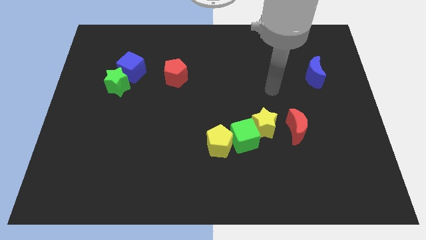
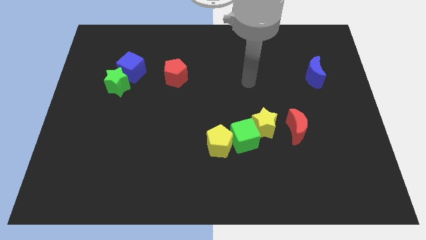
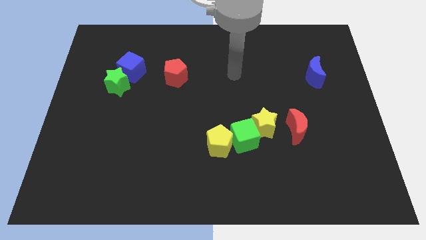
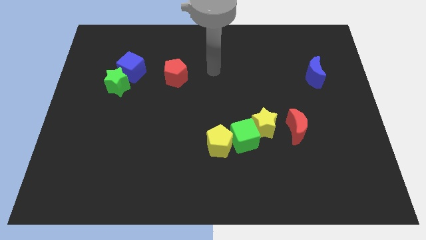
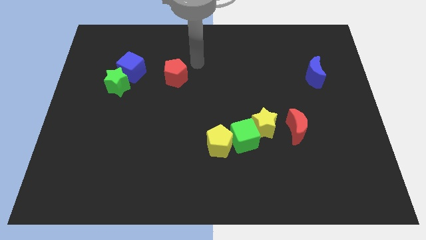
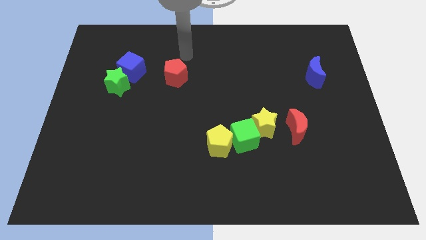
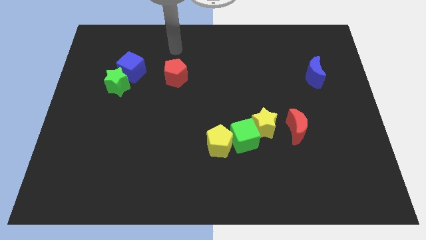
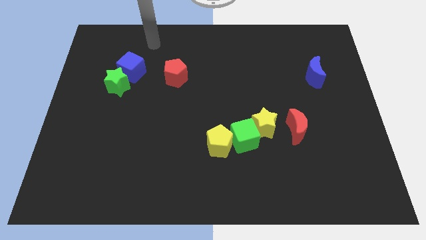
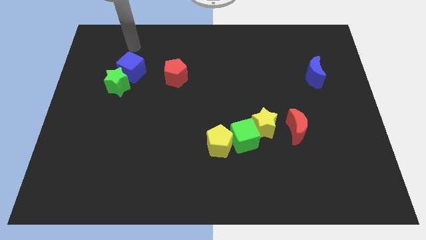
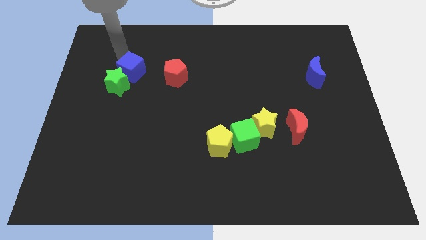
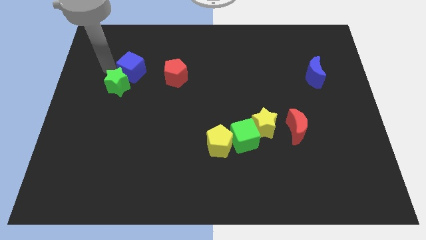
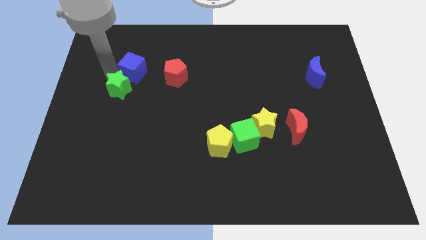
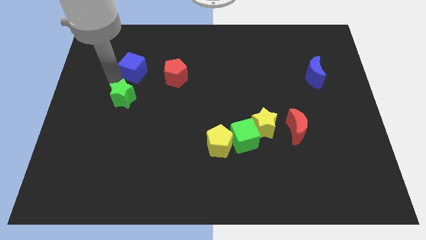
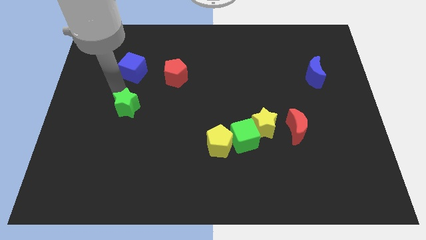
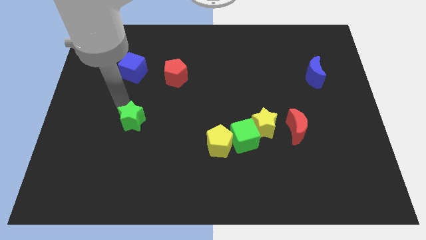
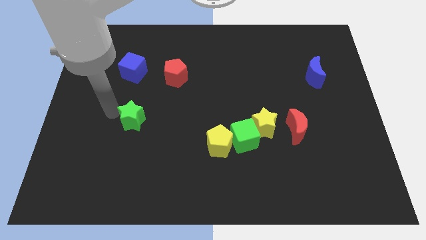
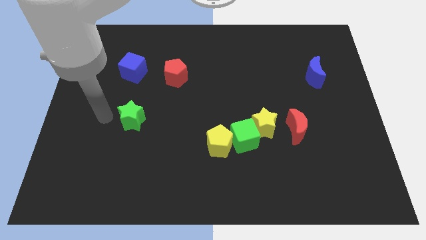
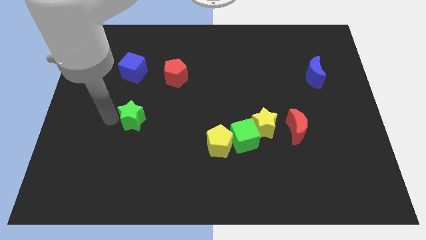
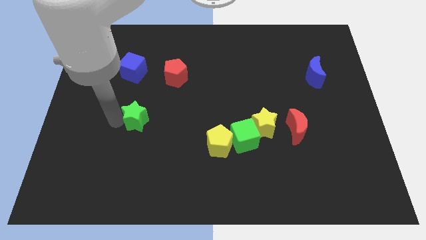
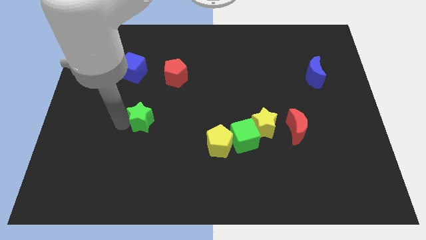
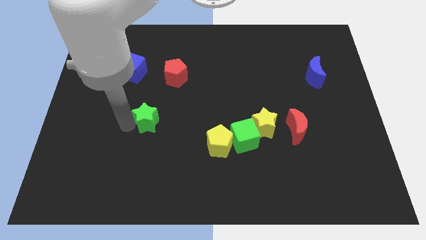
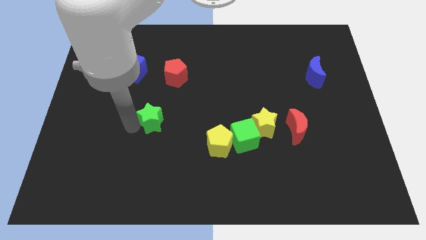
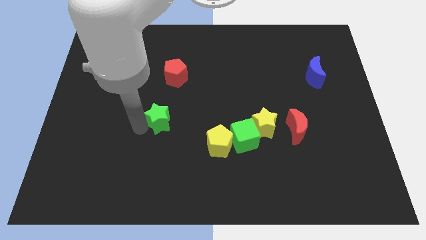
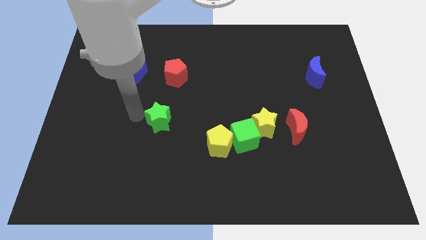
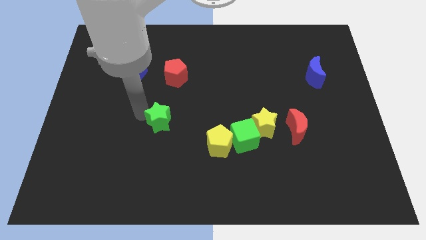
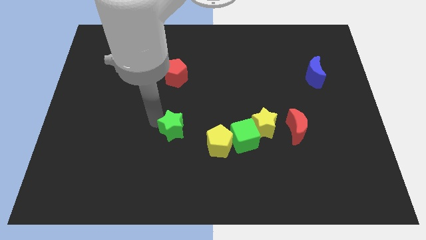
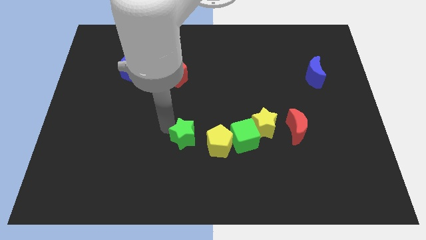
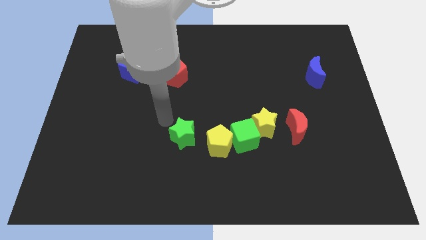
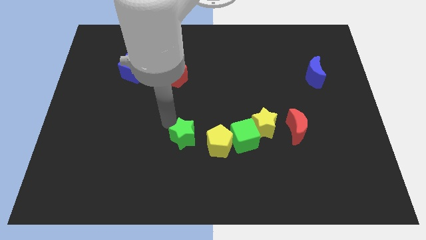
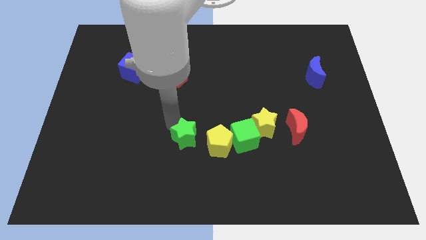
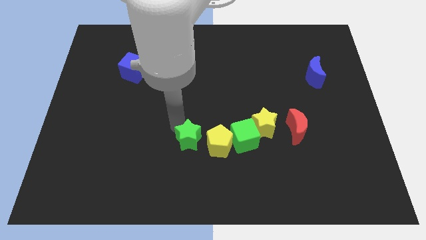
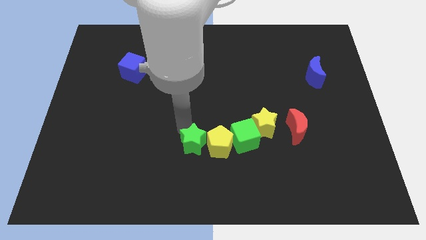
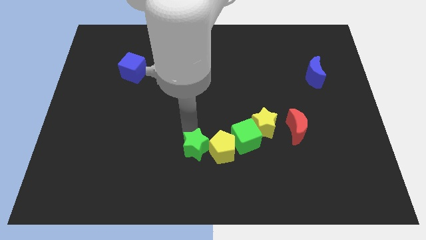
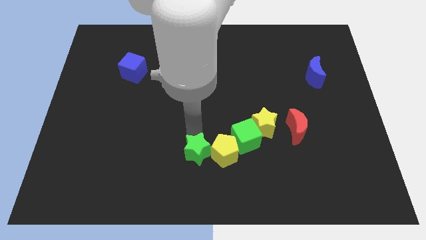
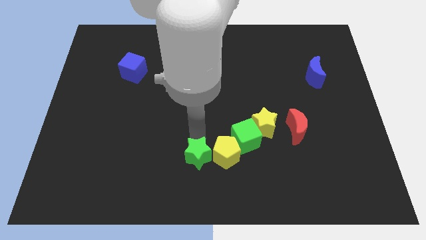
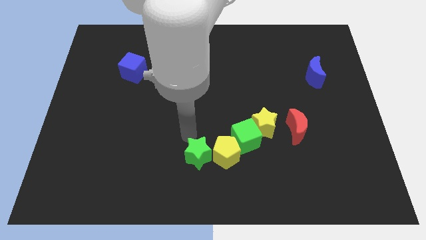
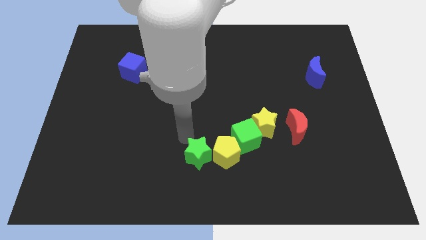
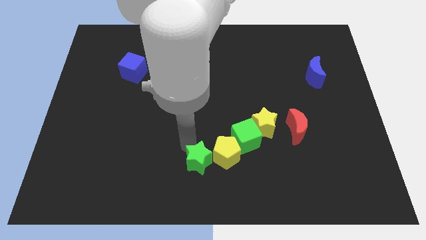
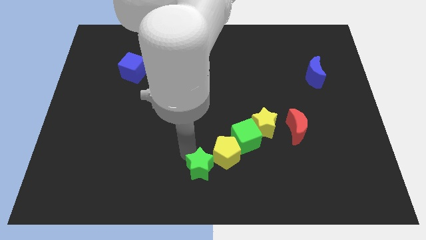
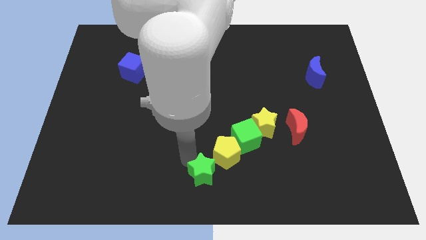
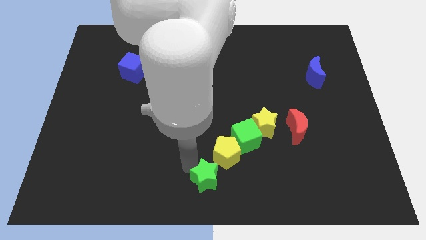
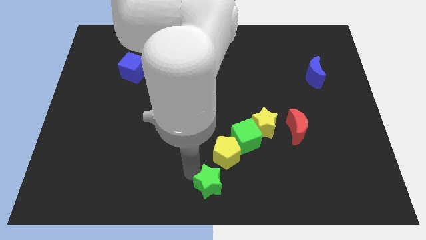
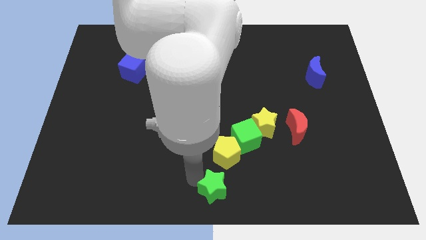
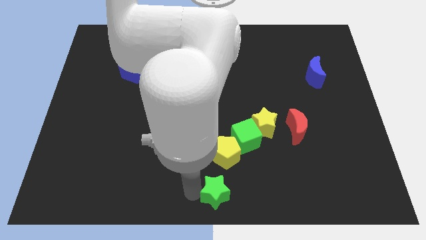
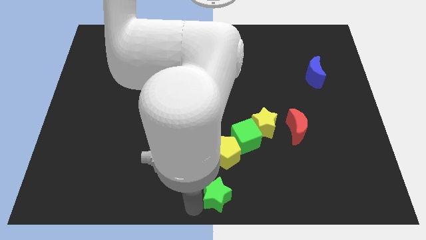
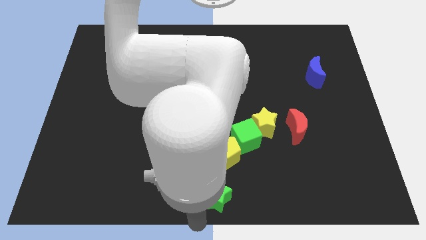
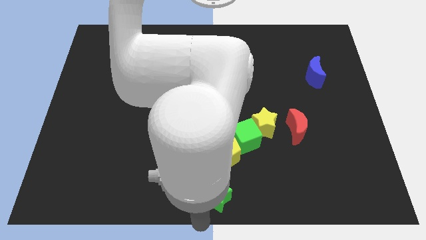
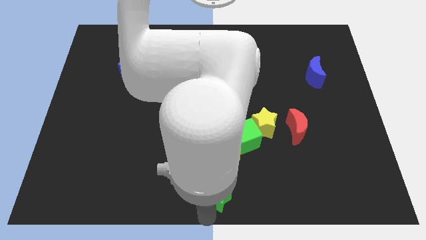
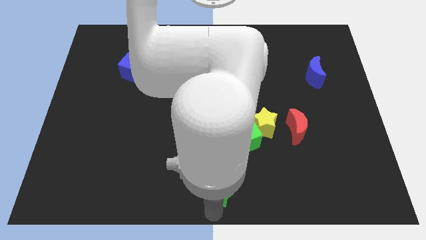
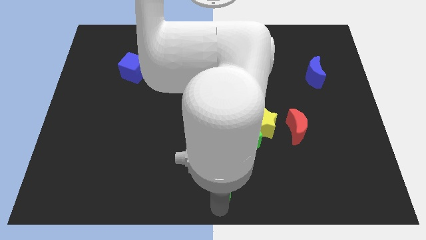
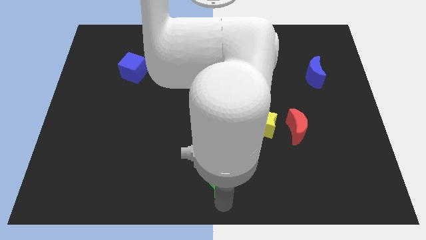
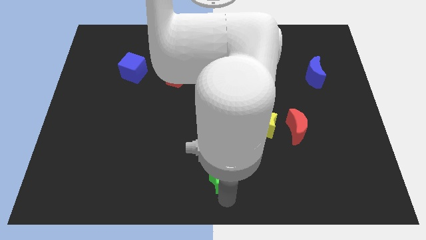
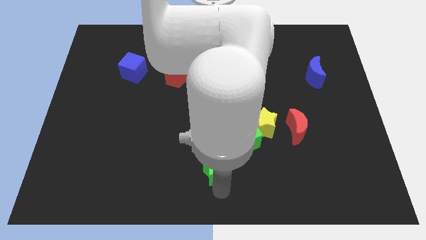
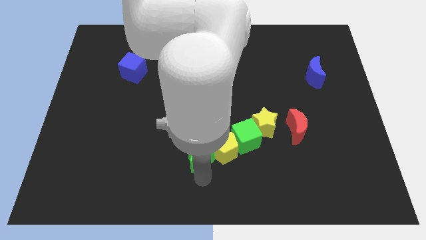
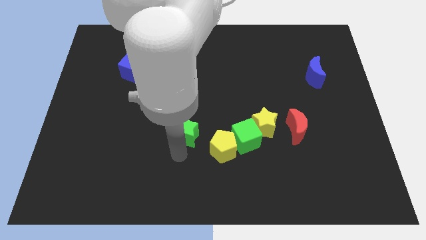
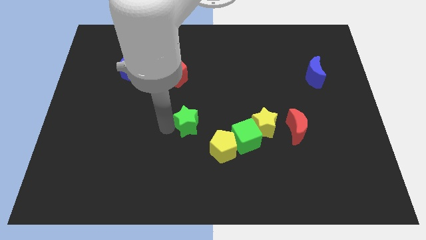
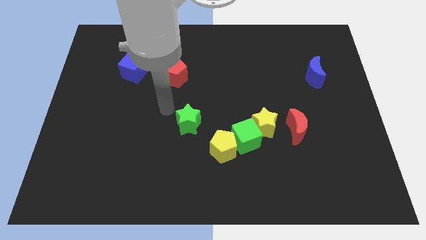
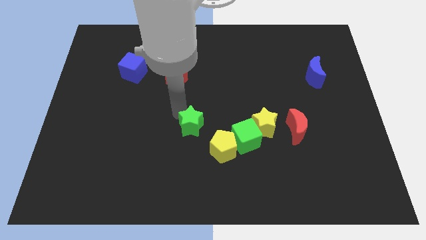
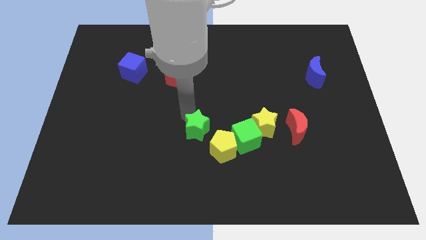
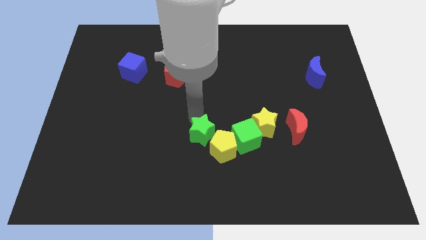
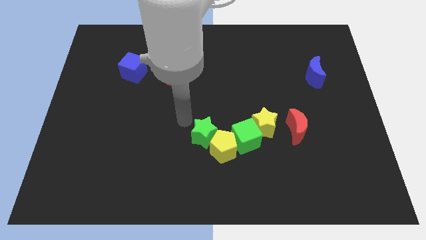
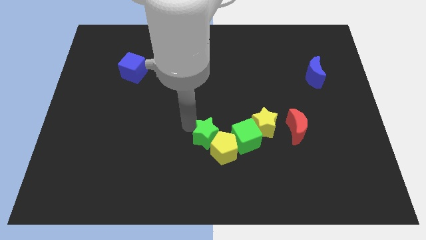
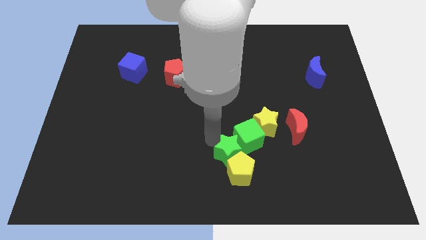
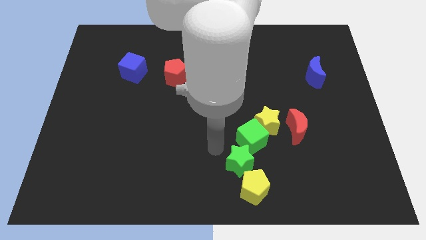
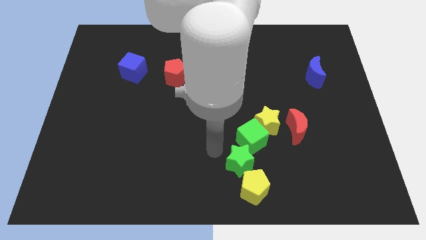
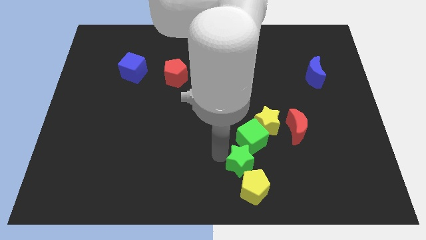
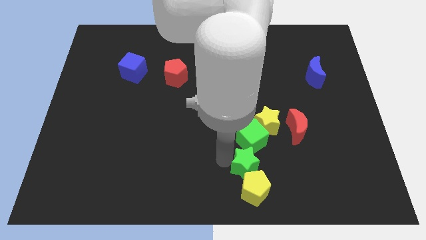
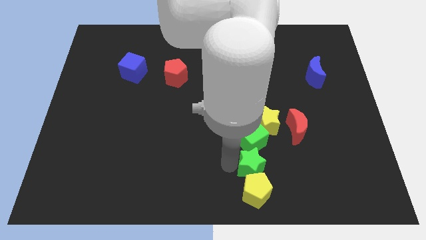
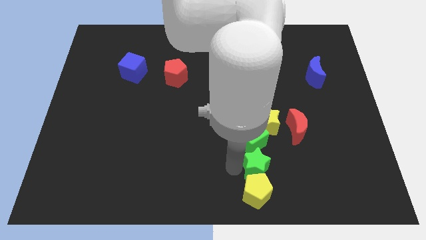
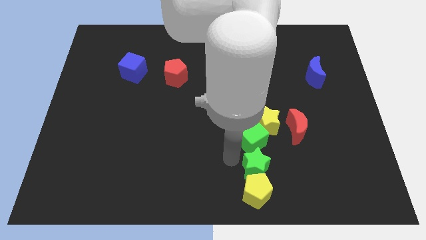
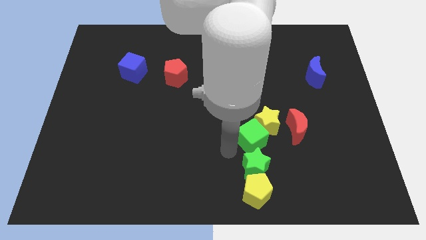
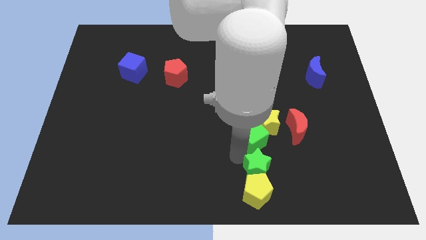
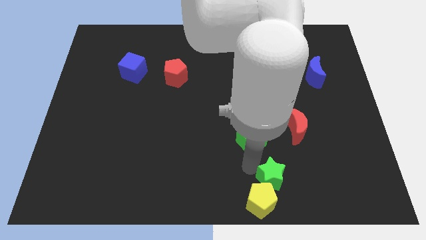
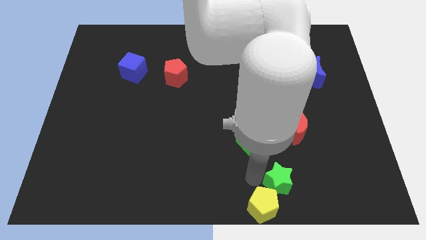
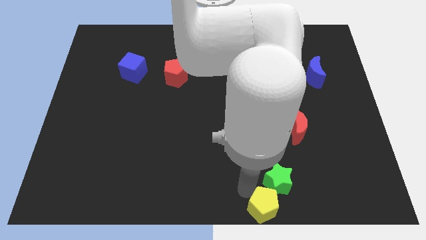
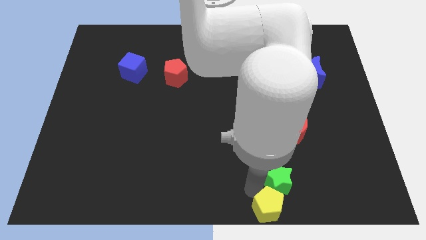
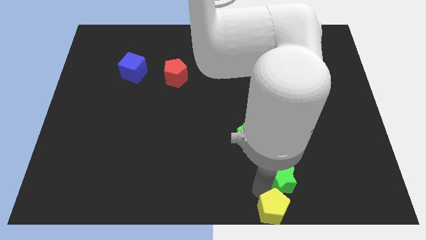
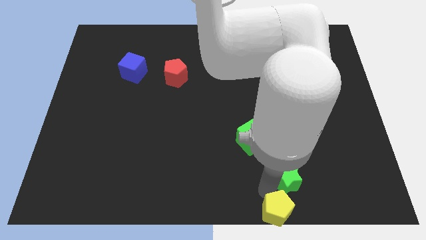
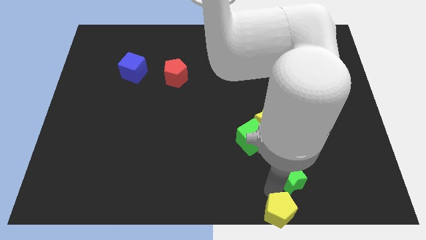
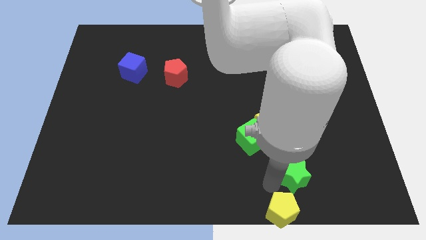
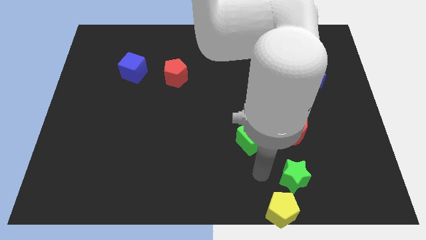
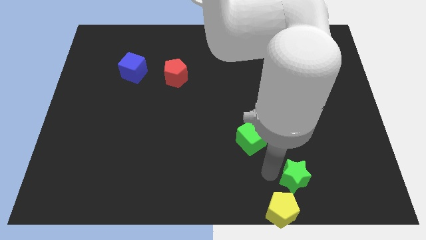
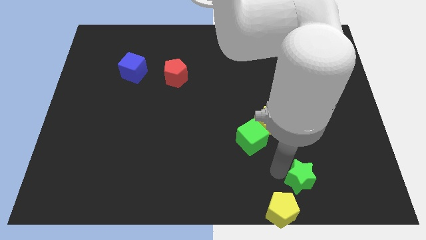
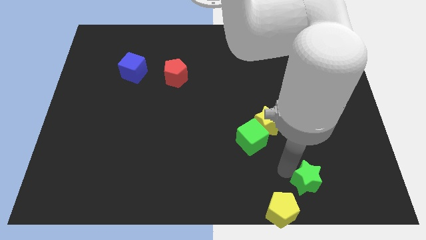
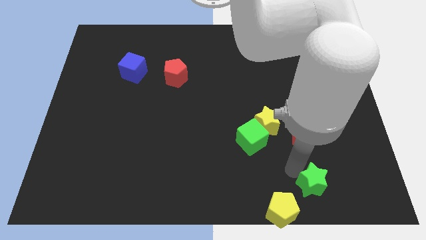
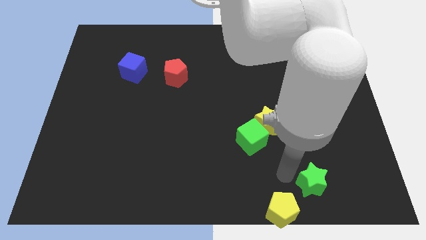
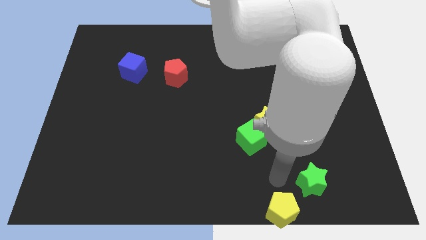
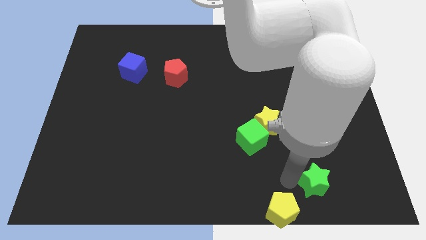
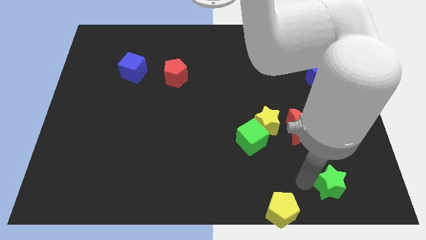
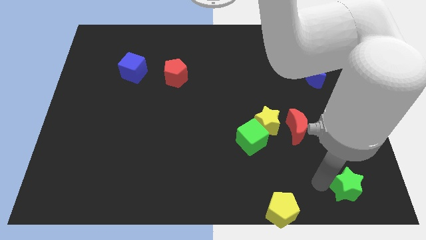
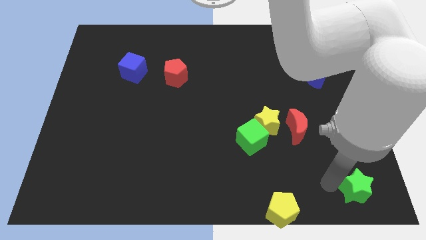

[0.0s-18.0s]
slide the green star to the bottom right of the board
